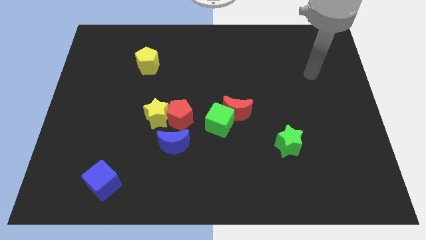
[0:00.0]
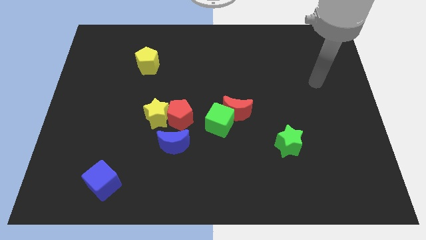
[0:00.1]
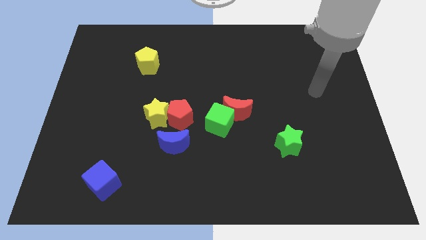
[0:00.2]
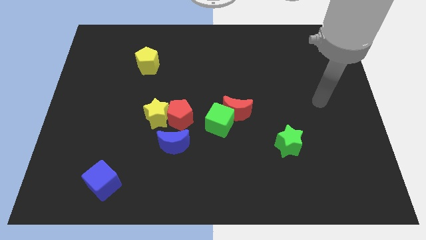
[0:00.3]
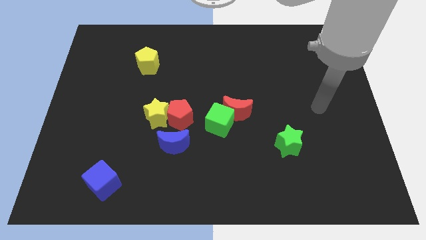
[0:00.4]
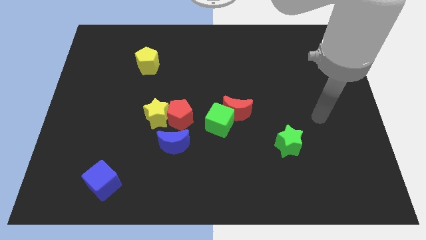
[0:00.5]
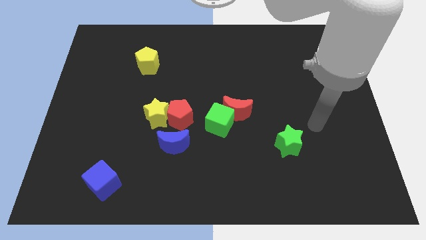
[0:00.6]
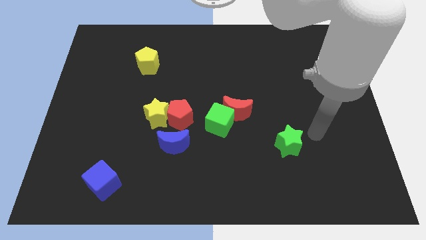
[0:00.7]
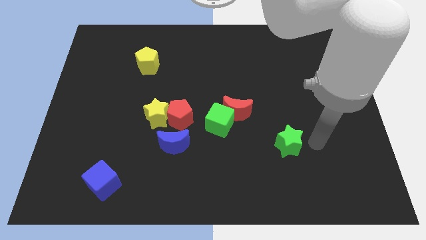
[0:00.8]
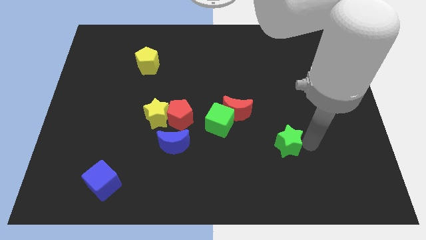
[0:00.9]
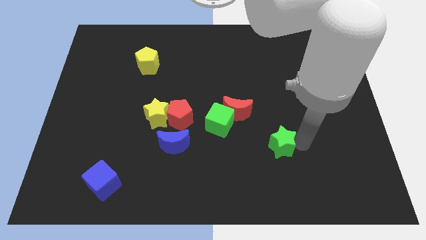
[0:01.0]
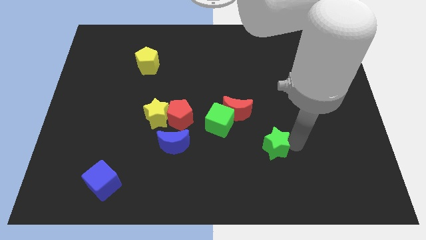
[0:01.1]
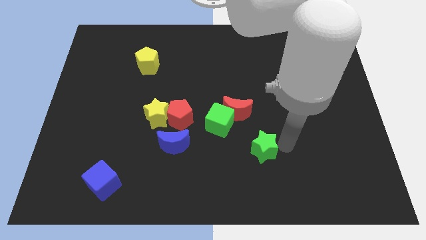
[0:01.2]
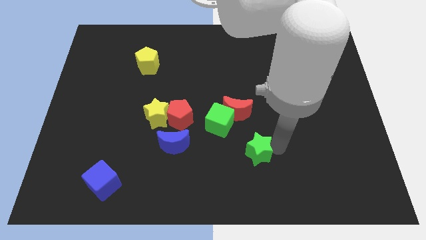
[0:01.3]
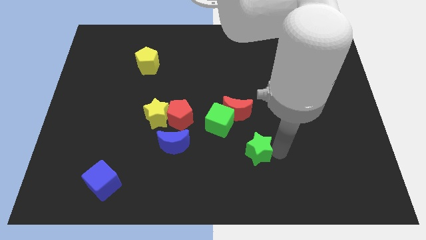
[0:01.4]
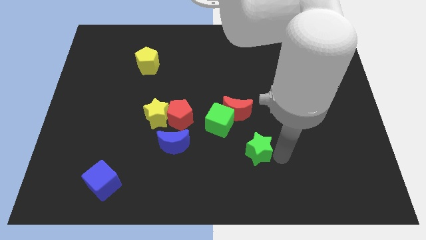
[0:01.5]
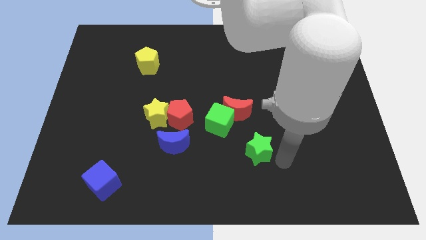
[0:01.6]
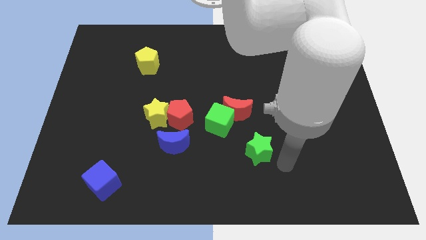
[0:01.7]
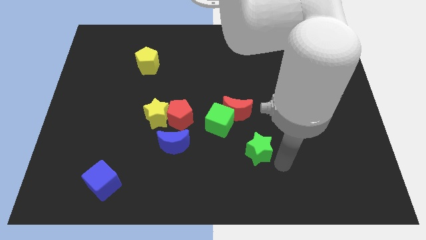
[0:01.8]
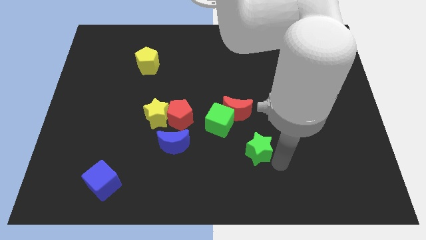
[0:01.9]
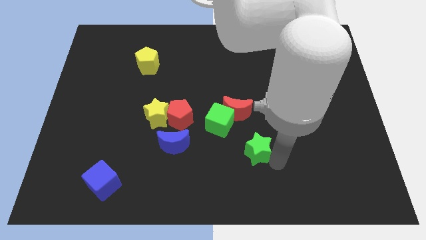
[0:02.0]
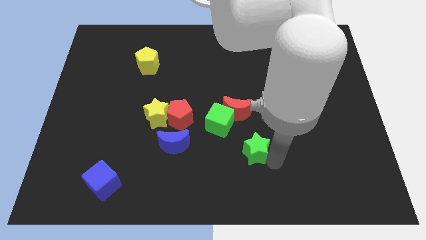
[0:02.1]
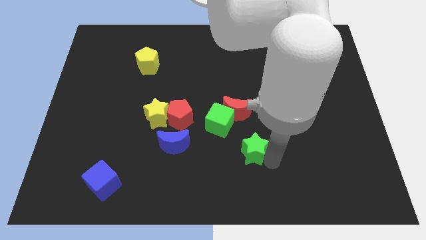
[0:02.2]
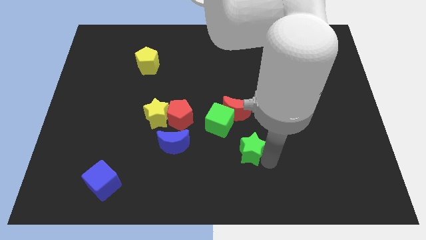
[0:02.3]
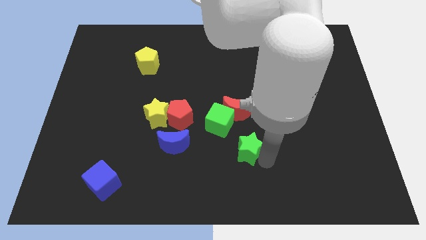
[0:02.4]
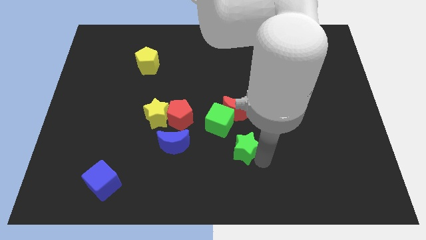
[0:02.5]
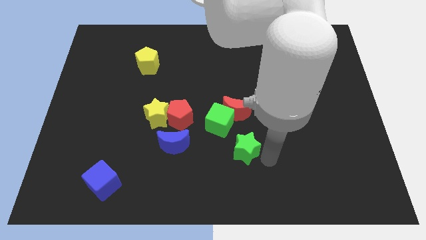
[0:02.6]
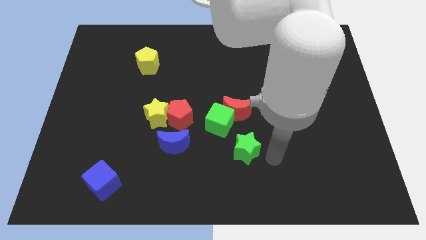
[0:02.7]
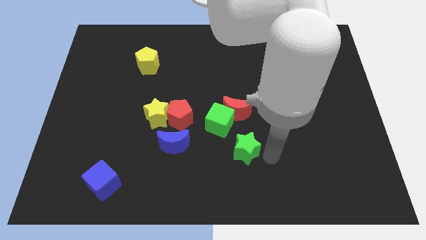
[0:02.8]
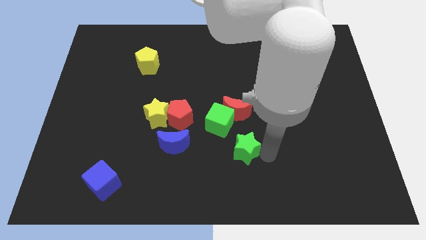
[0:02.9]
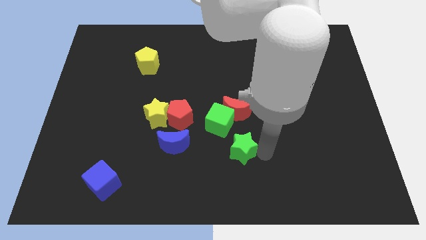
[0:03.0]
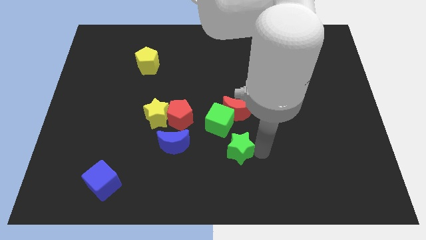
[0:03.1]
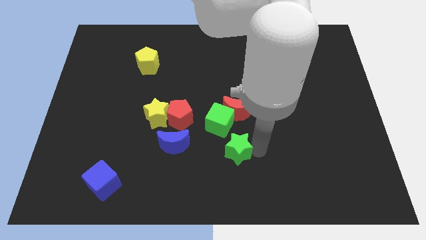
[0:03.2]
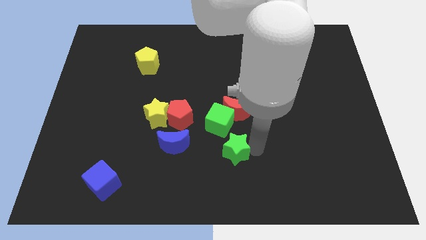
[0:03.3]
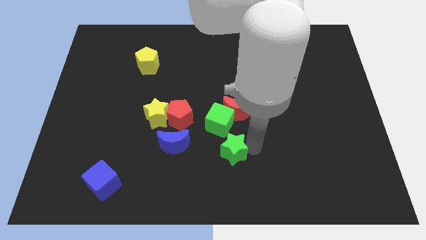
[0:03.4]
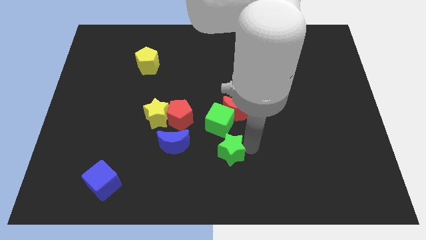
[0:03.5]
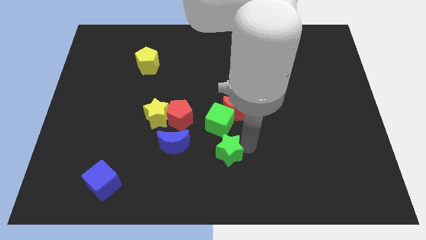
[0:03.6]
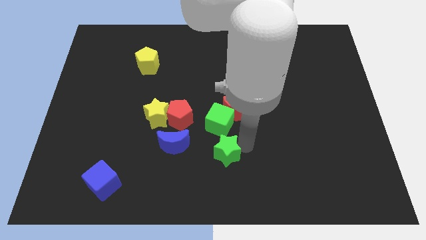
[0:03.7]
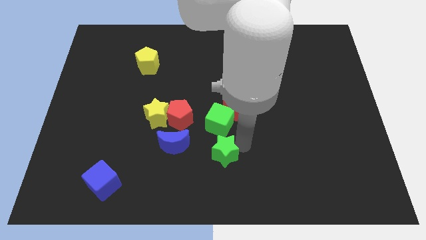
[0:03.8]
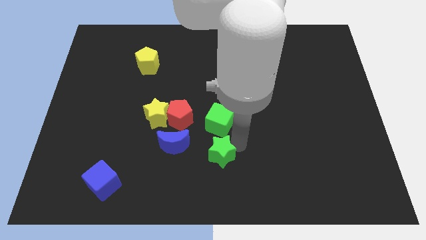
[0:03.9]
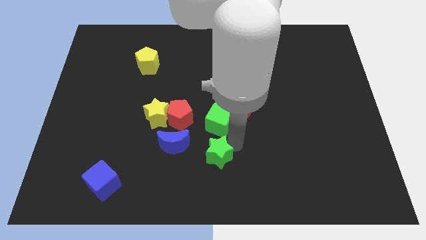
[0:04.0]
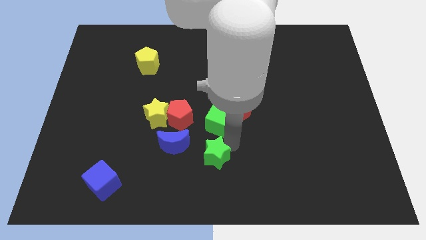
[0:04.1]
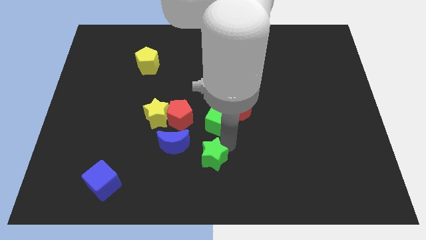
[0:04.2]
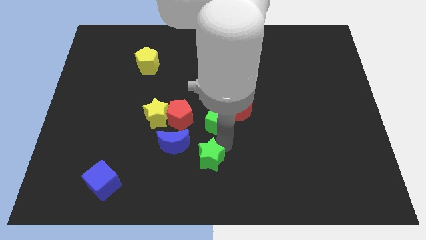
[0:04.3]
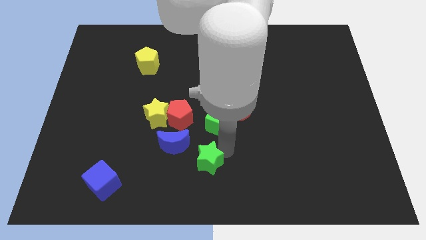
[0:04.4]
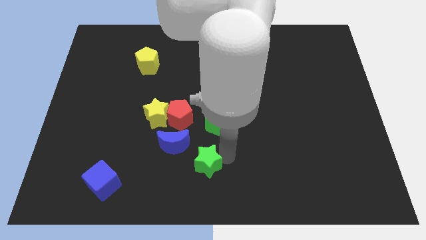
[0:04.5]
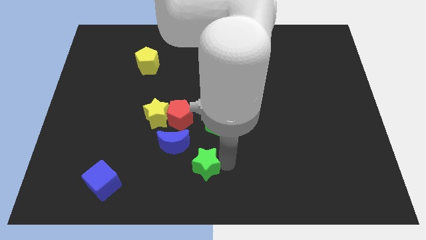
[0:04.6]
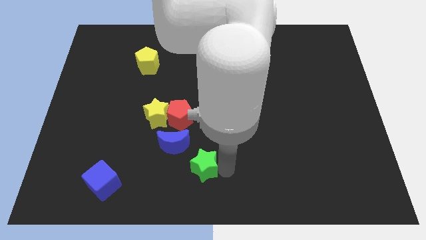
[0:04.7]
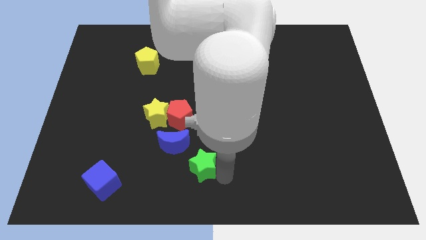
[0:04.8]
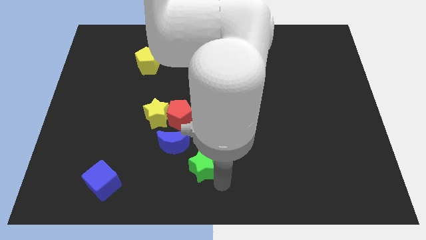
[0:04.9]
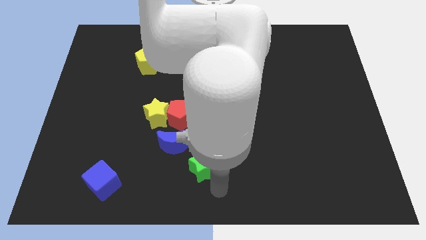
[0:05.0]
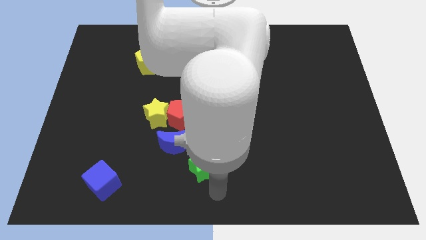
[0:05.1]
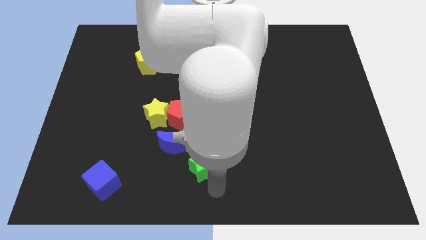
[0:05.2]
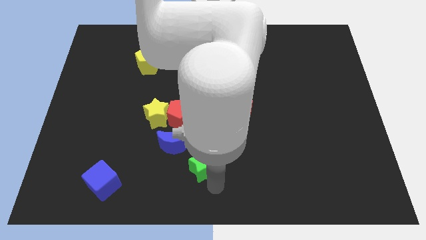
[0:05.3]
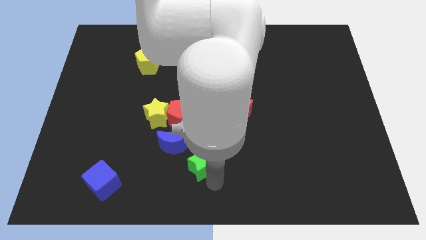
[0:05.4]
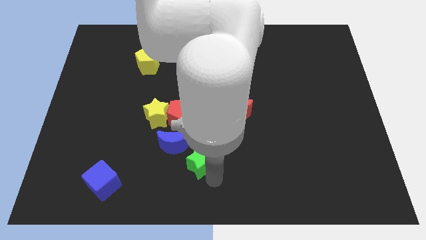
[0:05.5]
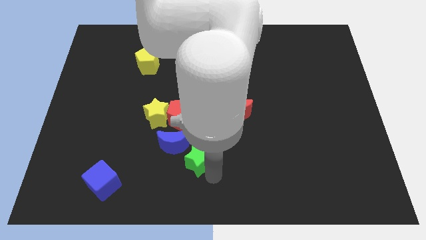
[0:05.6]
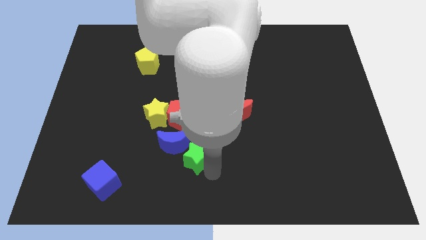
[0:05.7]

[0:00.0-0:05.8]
push the green star to the blue moon

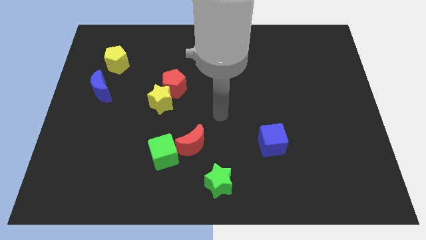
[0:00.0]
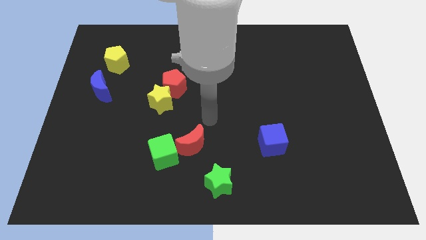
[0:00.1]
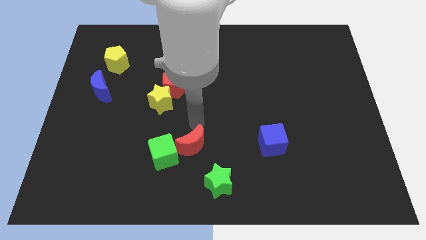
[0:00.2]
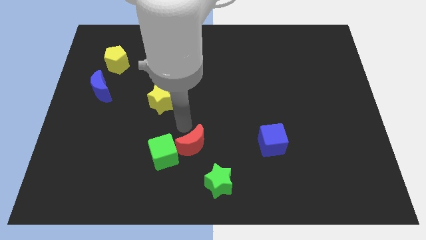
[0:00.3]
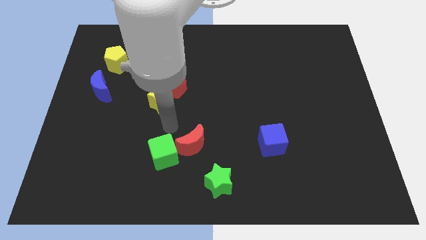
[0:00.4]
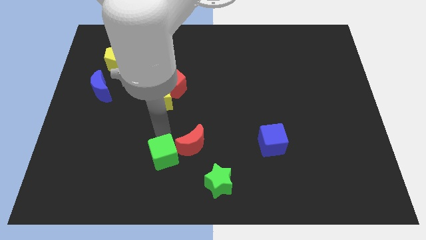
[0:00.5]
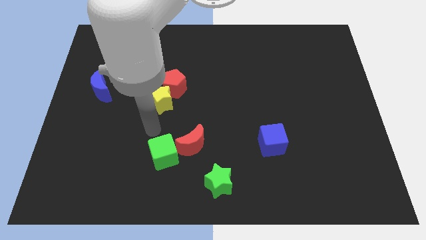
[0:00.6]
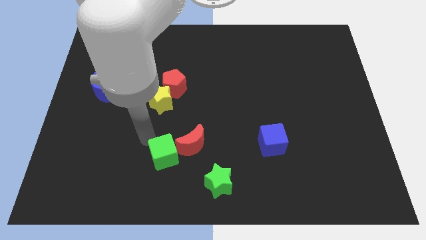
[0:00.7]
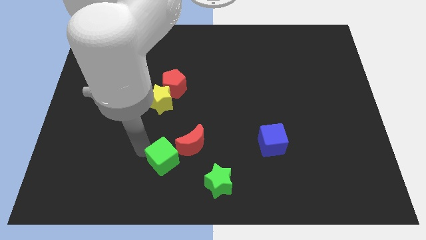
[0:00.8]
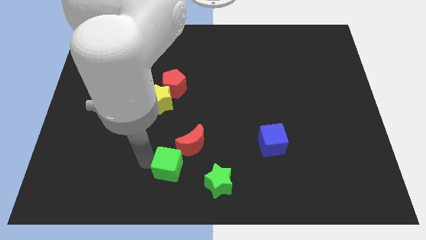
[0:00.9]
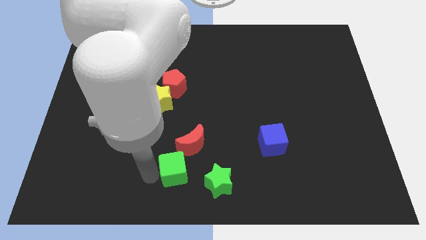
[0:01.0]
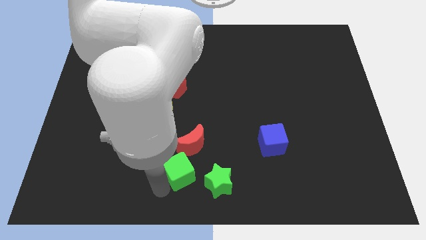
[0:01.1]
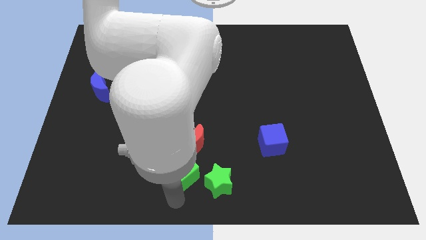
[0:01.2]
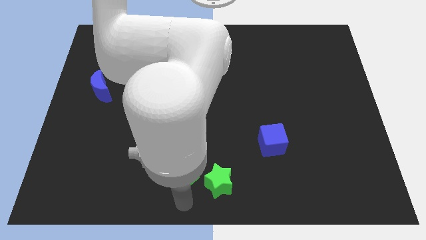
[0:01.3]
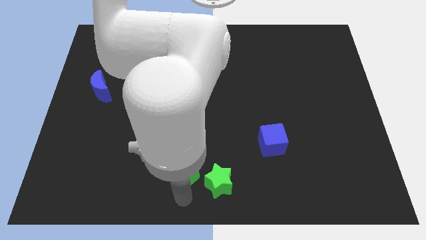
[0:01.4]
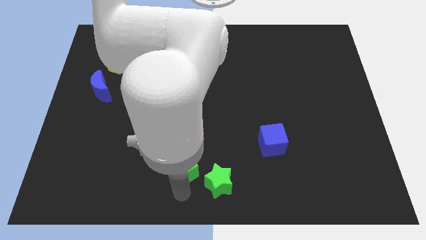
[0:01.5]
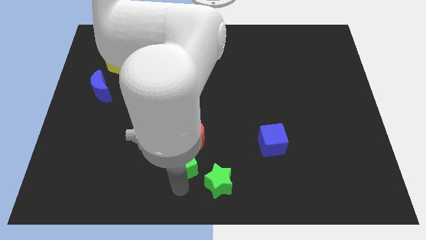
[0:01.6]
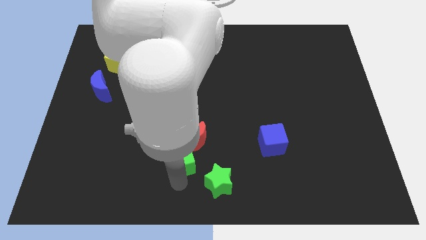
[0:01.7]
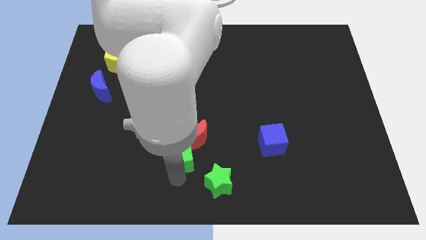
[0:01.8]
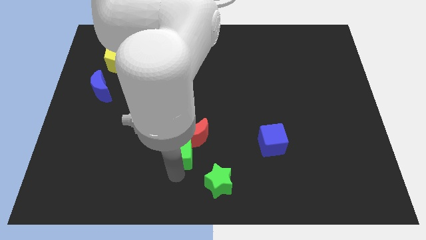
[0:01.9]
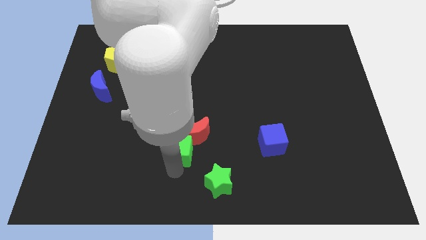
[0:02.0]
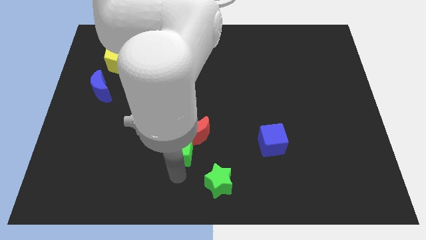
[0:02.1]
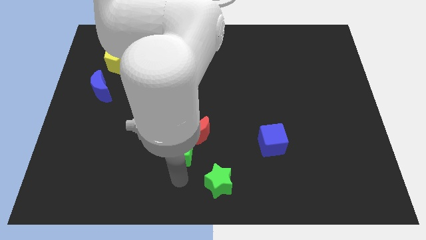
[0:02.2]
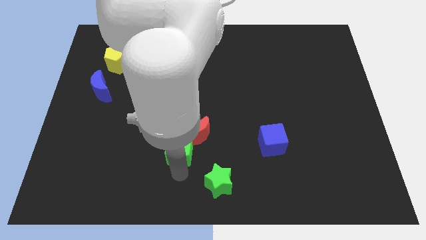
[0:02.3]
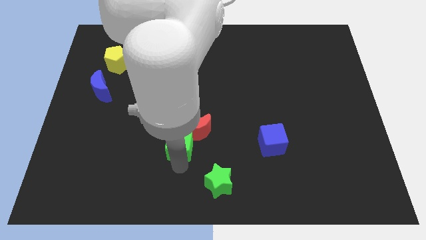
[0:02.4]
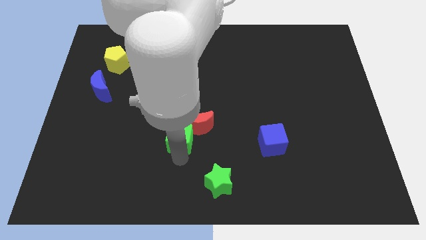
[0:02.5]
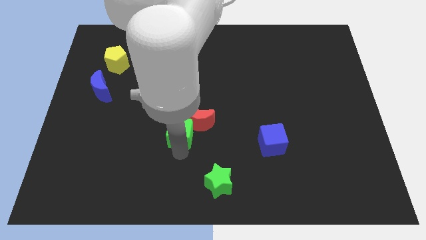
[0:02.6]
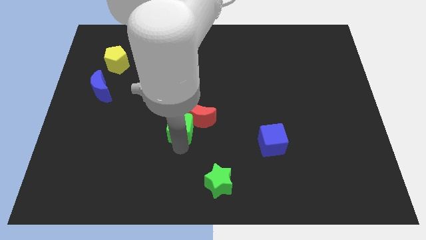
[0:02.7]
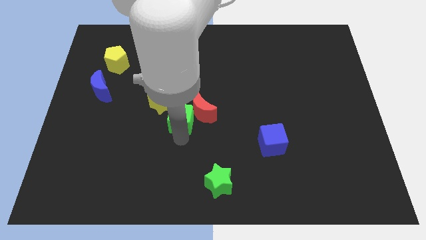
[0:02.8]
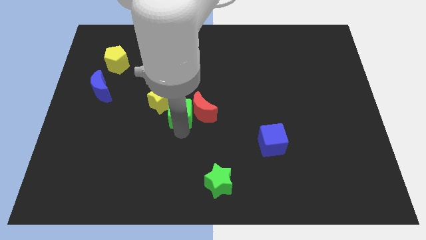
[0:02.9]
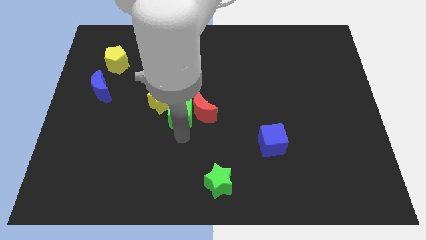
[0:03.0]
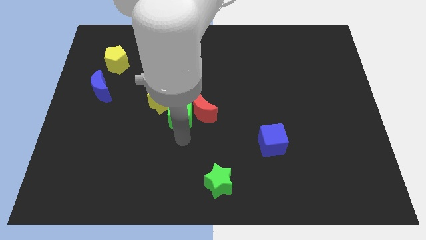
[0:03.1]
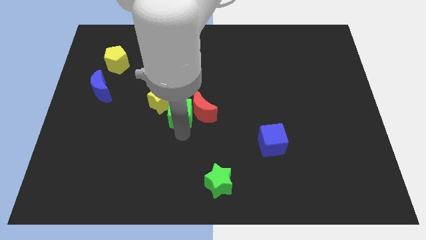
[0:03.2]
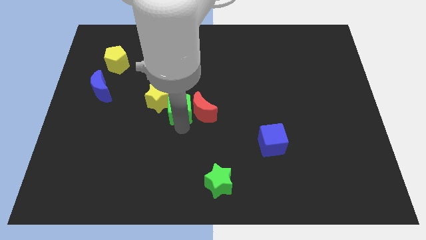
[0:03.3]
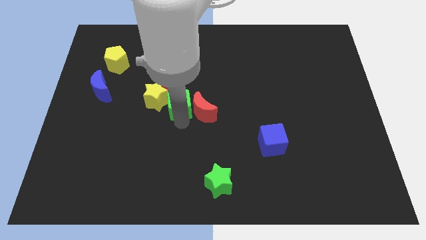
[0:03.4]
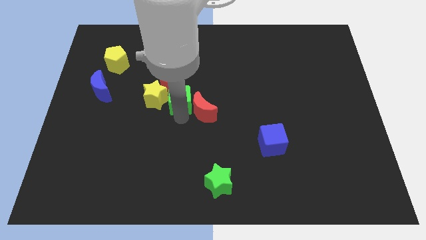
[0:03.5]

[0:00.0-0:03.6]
put the green cube to the red pentagon
